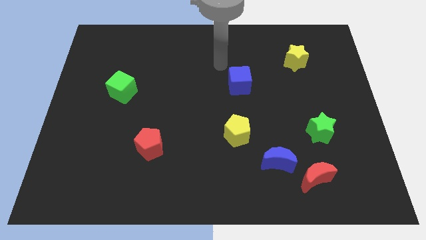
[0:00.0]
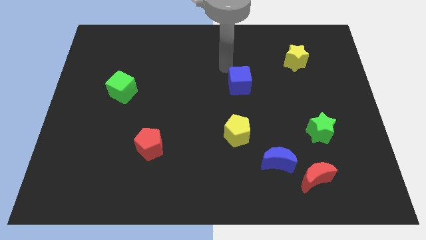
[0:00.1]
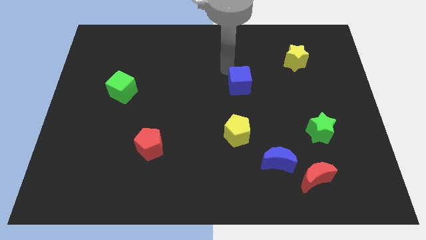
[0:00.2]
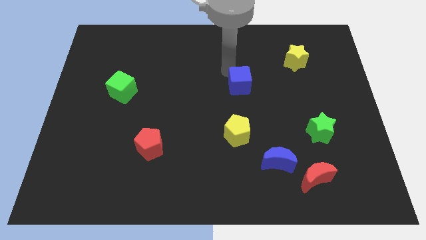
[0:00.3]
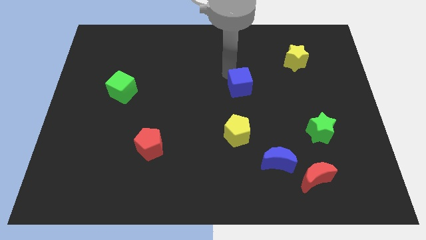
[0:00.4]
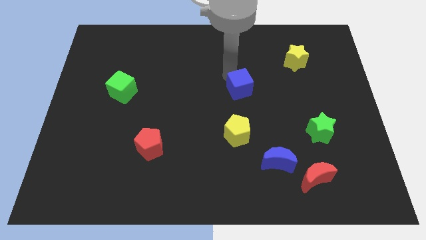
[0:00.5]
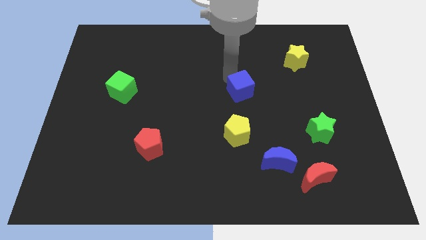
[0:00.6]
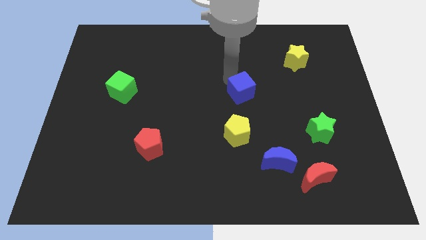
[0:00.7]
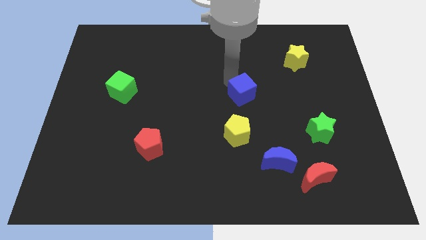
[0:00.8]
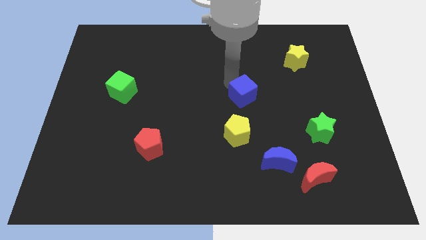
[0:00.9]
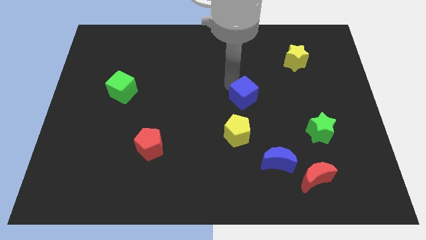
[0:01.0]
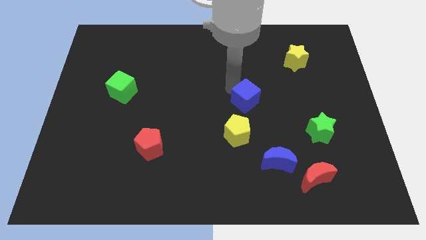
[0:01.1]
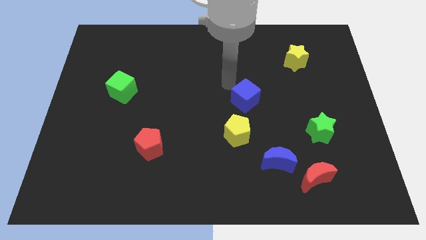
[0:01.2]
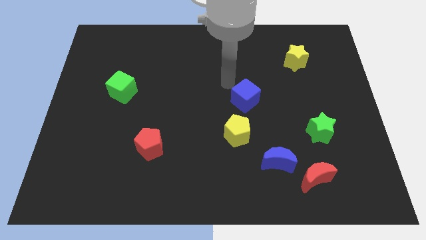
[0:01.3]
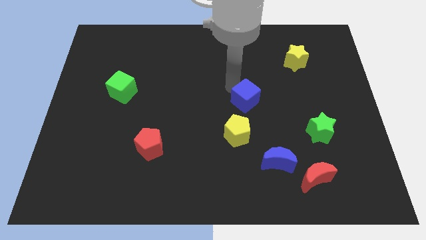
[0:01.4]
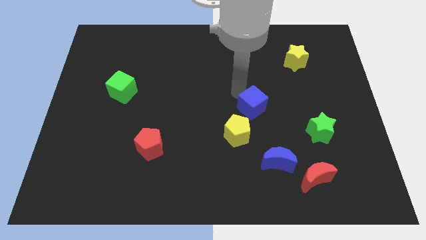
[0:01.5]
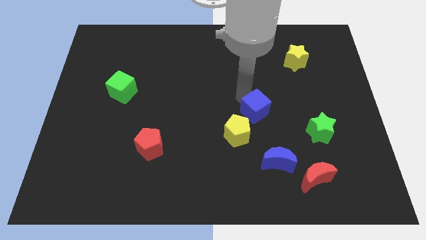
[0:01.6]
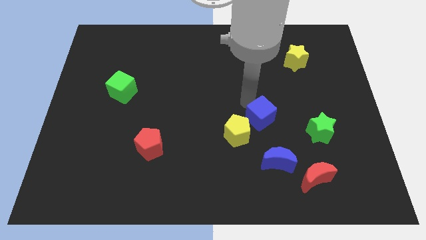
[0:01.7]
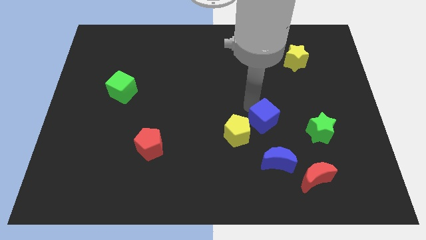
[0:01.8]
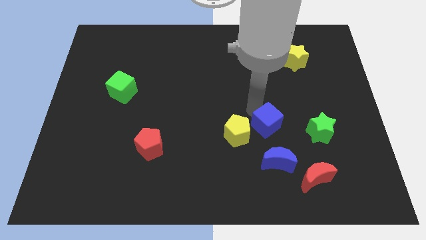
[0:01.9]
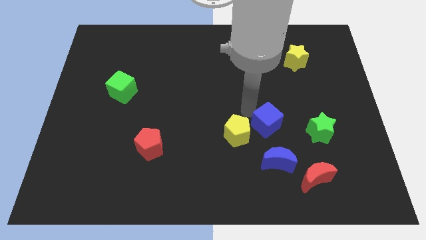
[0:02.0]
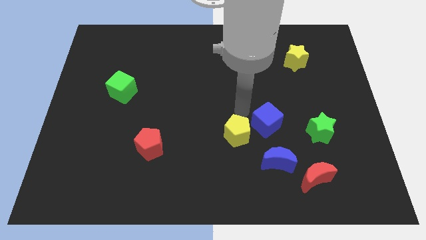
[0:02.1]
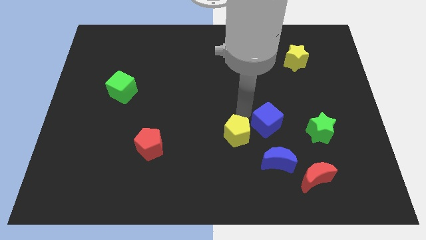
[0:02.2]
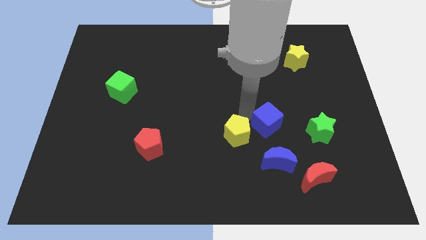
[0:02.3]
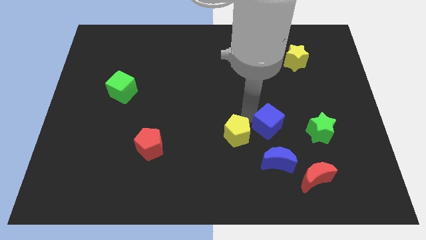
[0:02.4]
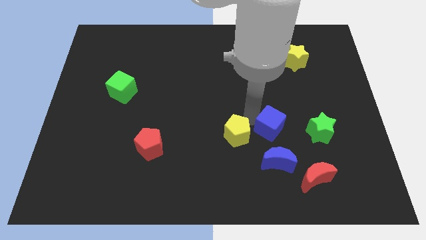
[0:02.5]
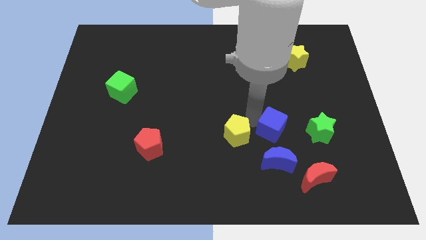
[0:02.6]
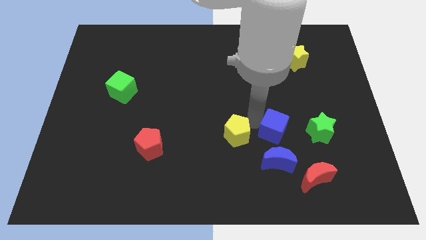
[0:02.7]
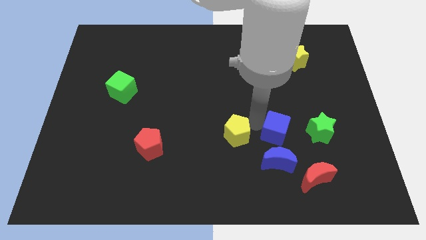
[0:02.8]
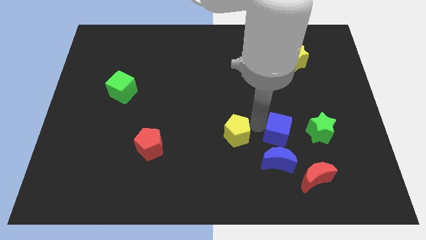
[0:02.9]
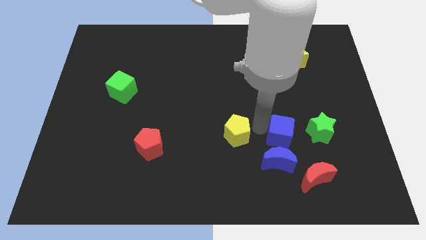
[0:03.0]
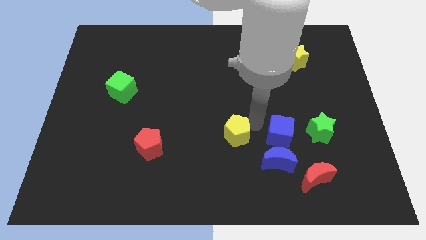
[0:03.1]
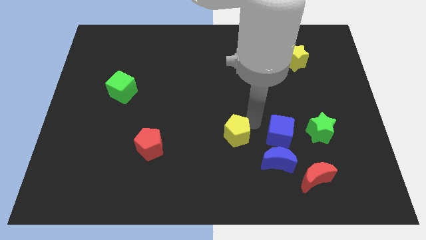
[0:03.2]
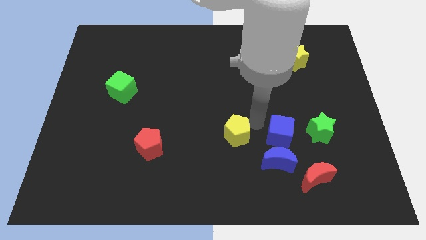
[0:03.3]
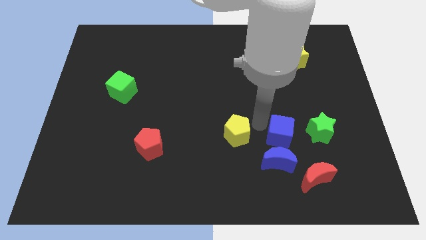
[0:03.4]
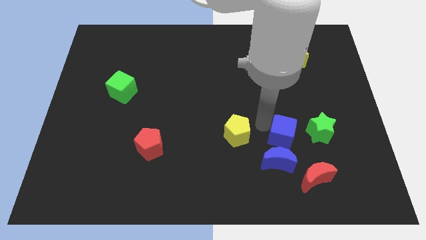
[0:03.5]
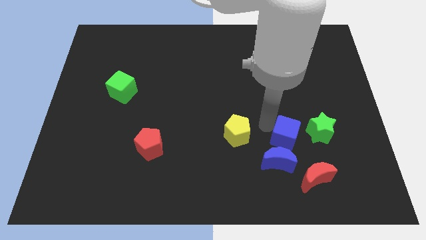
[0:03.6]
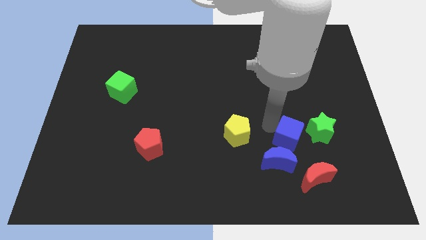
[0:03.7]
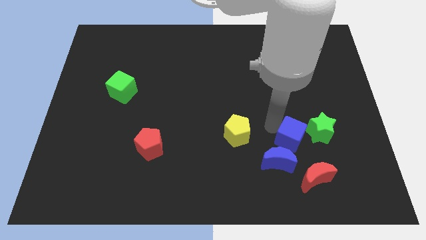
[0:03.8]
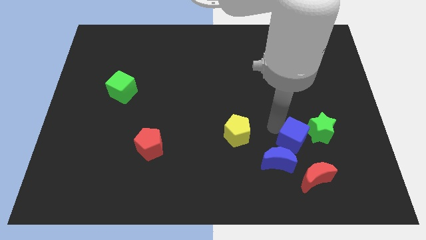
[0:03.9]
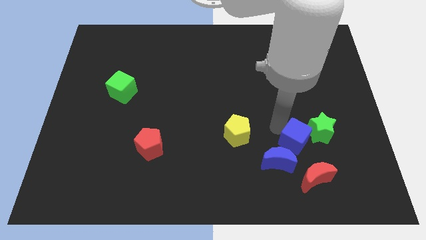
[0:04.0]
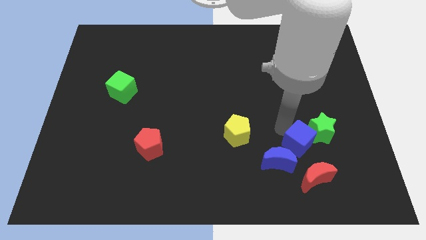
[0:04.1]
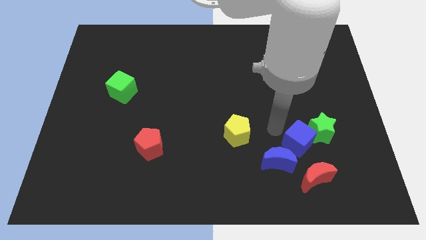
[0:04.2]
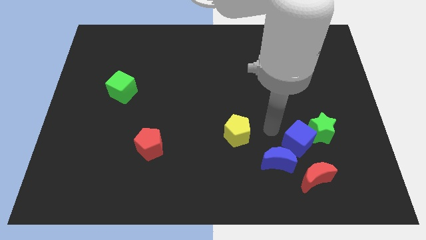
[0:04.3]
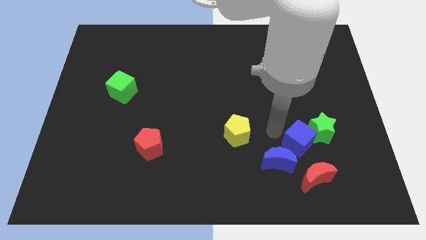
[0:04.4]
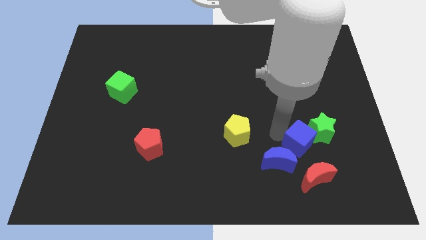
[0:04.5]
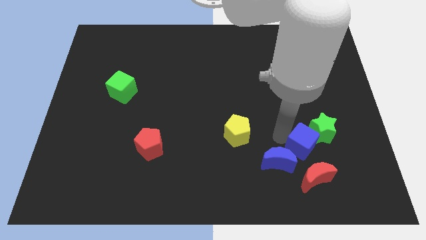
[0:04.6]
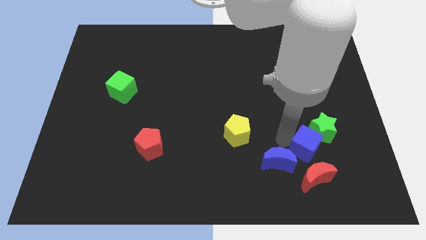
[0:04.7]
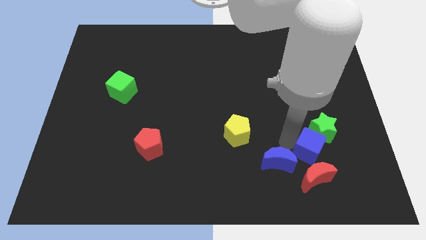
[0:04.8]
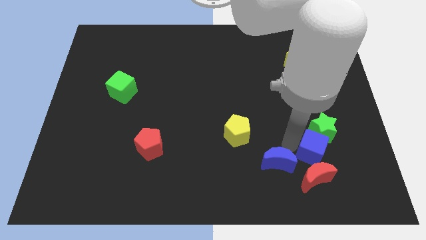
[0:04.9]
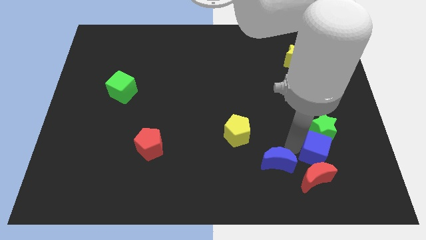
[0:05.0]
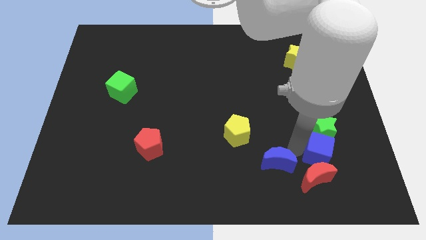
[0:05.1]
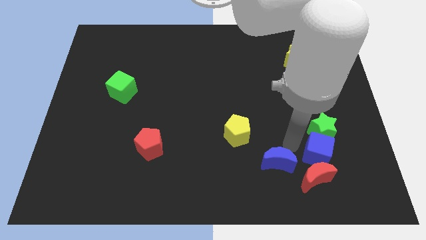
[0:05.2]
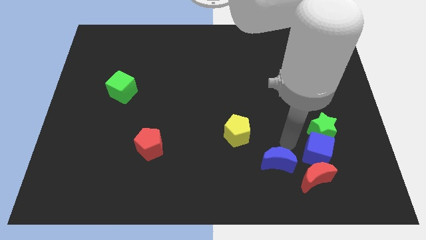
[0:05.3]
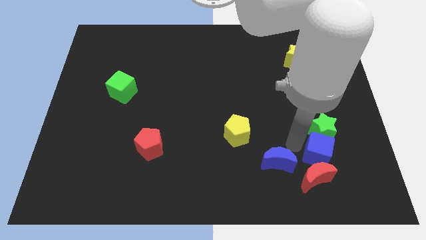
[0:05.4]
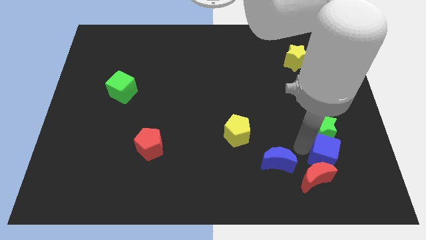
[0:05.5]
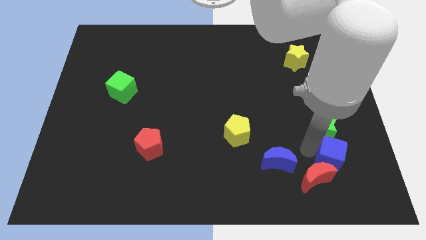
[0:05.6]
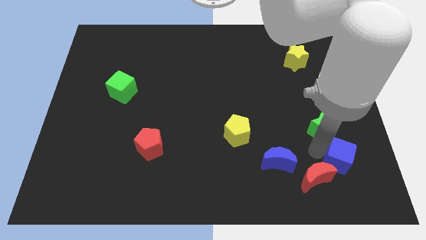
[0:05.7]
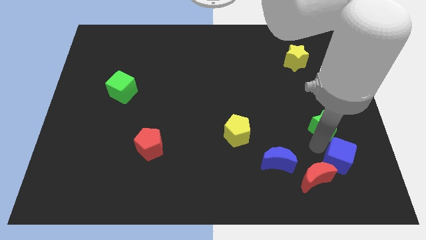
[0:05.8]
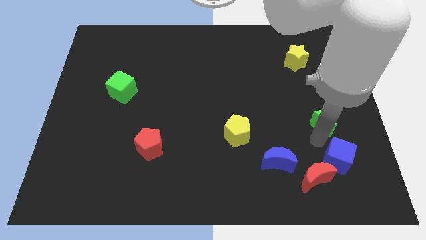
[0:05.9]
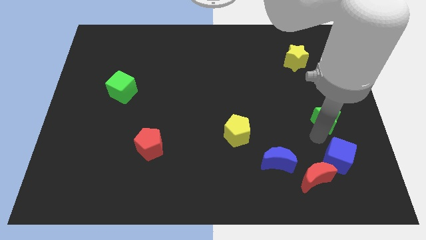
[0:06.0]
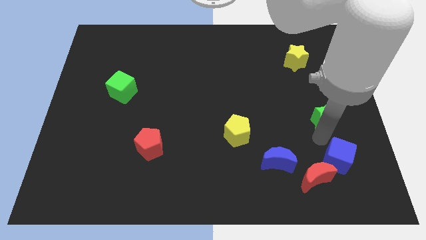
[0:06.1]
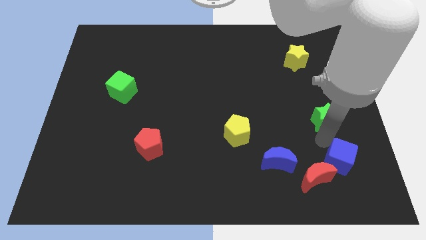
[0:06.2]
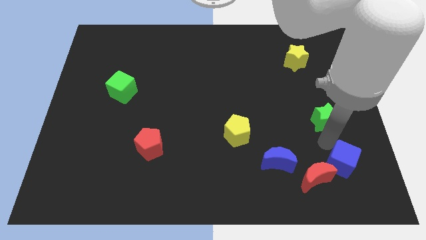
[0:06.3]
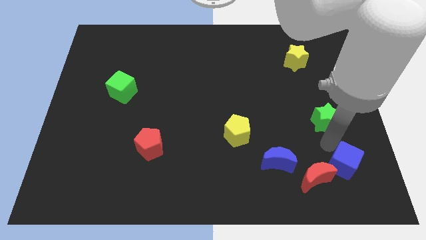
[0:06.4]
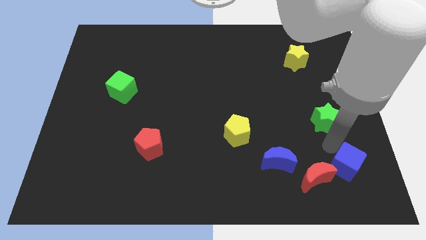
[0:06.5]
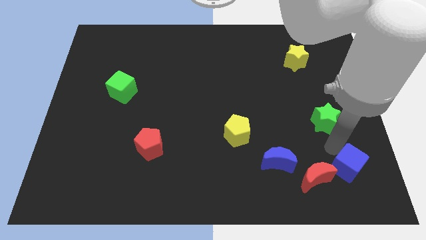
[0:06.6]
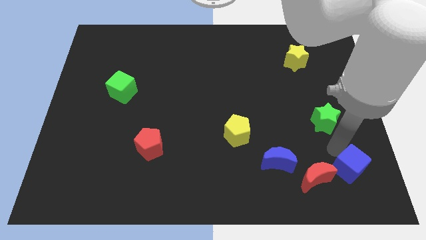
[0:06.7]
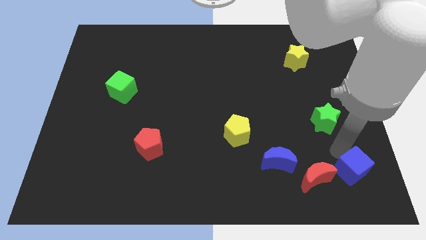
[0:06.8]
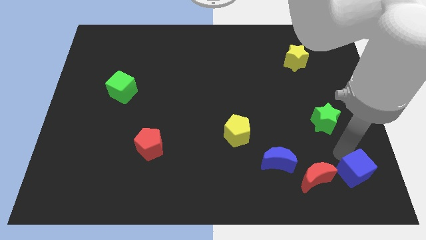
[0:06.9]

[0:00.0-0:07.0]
slide the blue cube to the bottom right of the board
